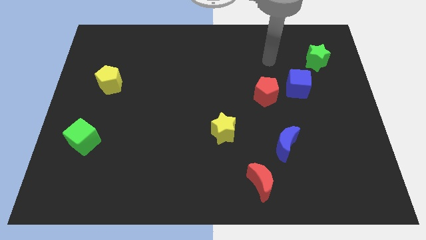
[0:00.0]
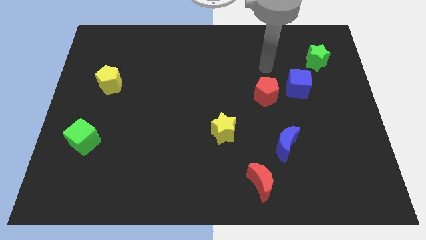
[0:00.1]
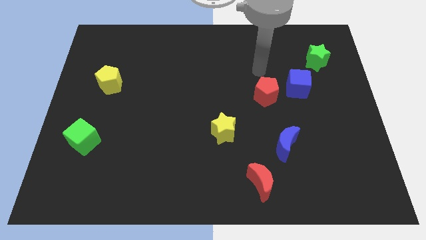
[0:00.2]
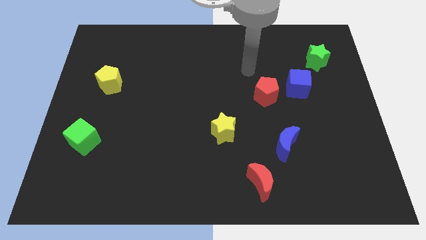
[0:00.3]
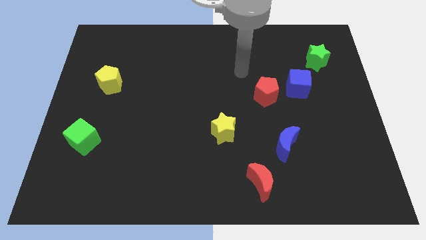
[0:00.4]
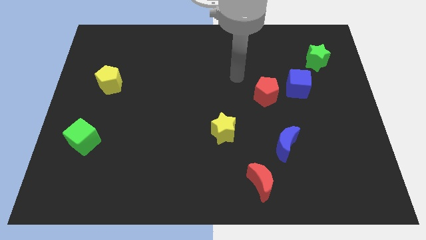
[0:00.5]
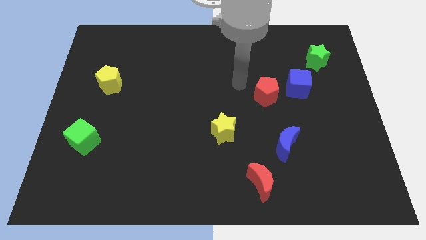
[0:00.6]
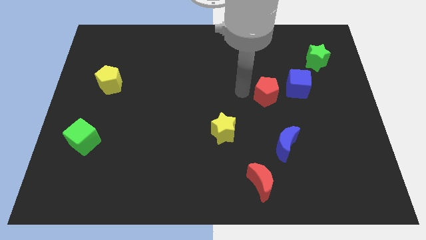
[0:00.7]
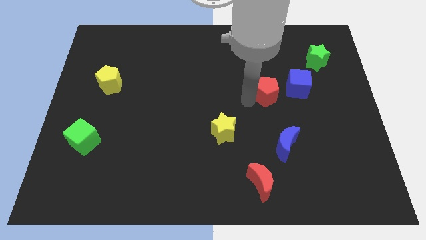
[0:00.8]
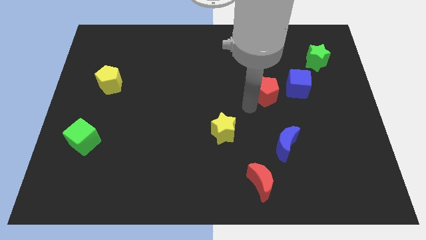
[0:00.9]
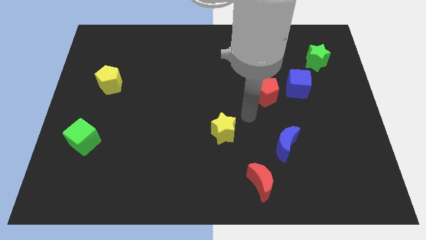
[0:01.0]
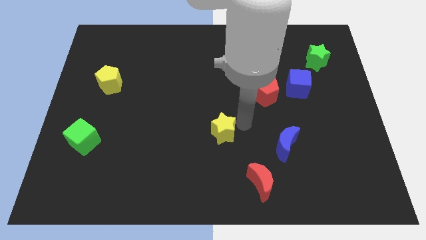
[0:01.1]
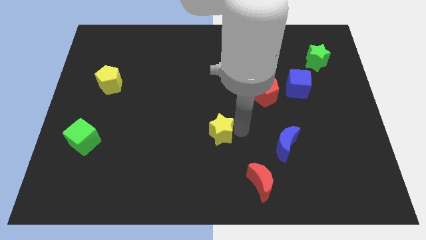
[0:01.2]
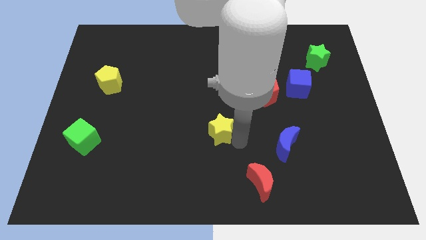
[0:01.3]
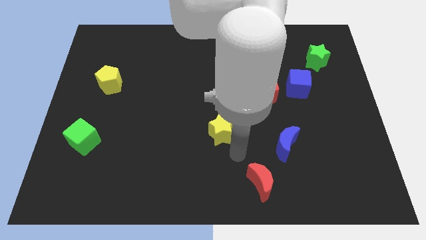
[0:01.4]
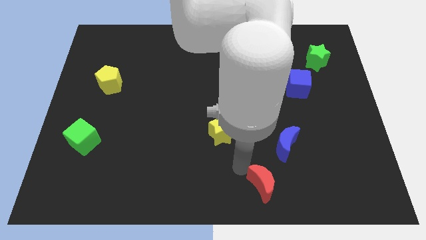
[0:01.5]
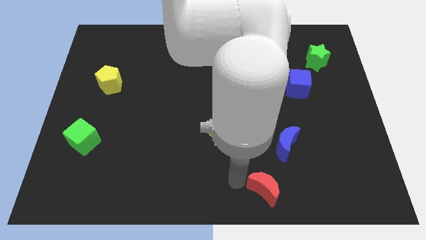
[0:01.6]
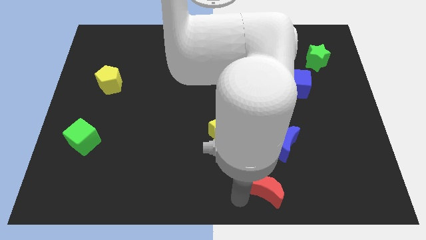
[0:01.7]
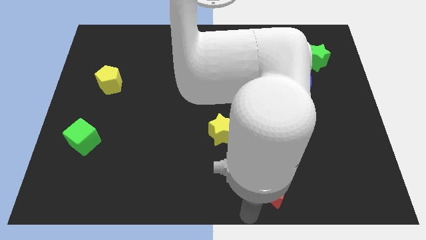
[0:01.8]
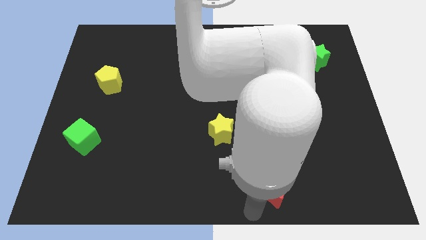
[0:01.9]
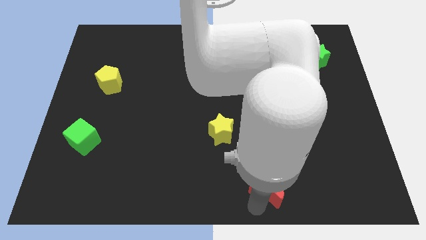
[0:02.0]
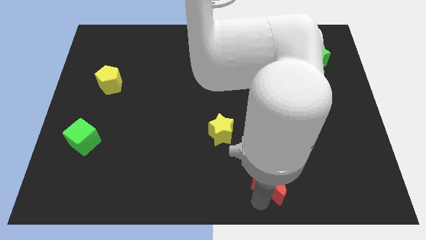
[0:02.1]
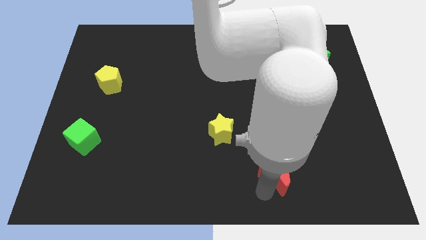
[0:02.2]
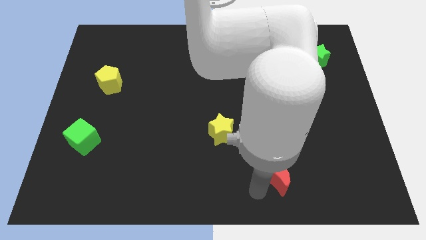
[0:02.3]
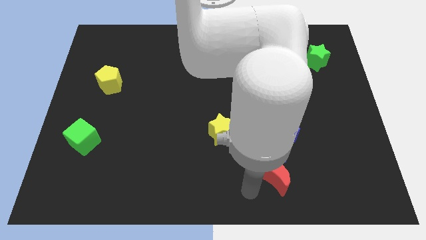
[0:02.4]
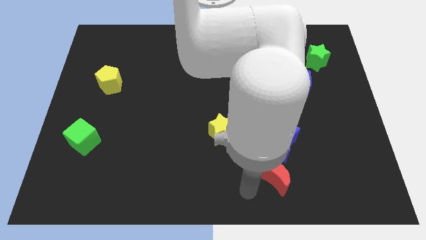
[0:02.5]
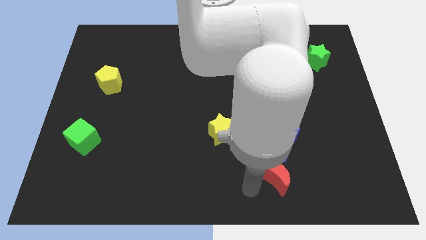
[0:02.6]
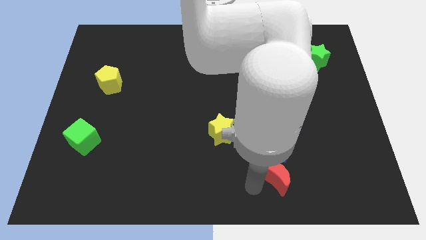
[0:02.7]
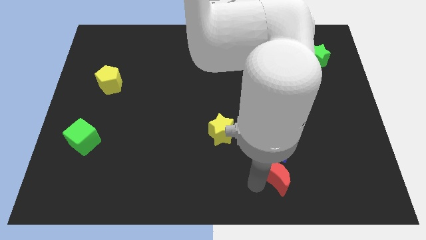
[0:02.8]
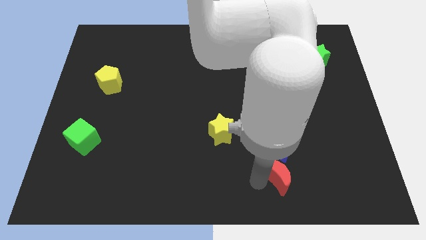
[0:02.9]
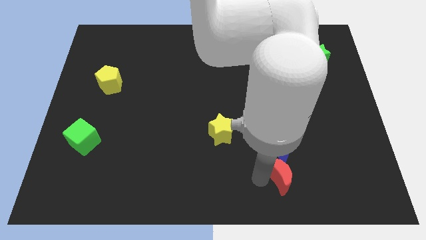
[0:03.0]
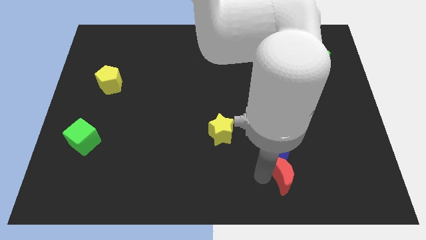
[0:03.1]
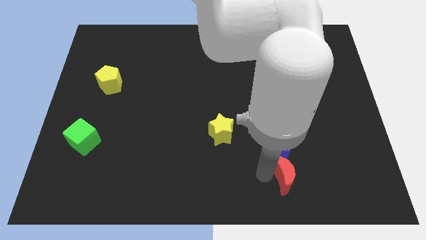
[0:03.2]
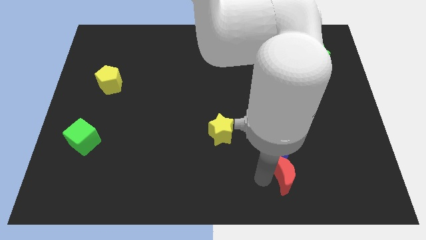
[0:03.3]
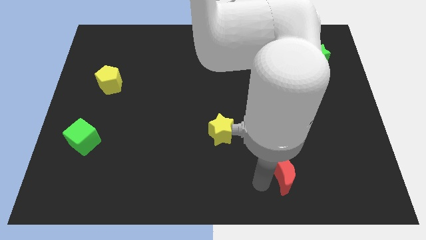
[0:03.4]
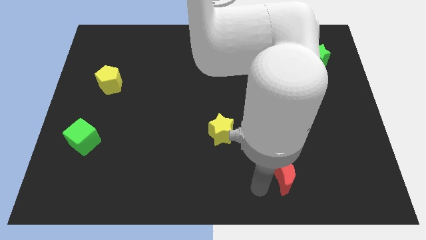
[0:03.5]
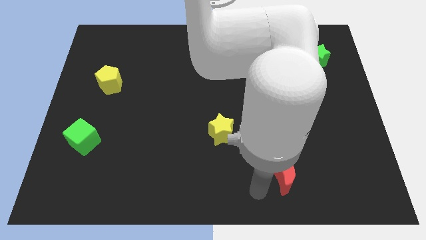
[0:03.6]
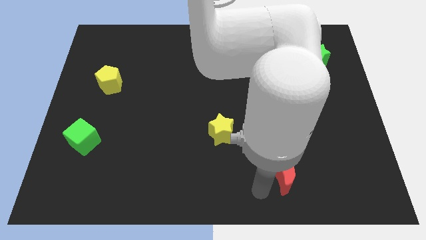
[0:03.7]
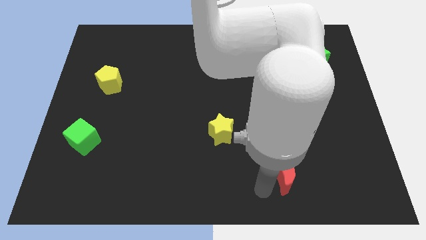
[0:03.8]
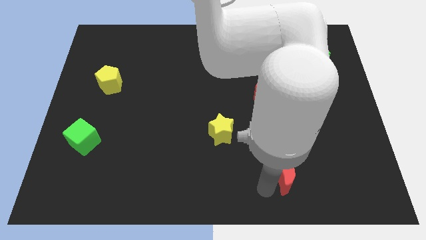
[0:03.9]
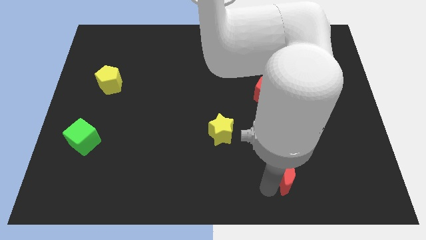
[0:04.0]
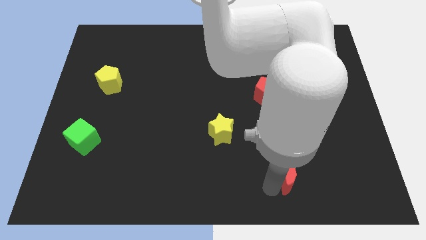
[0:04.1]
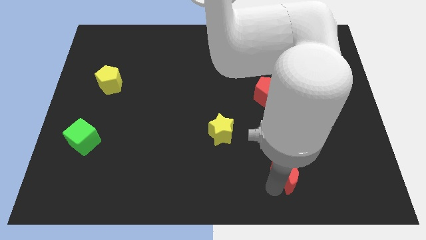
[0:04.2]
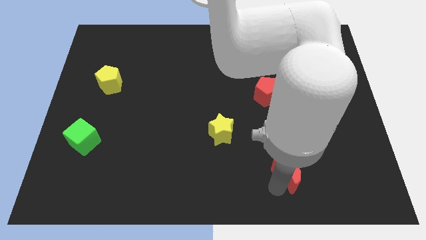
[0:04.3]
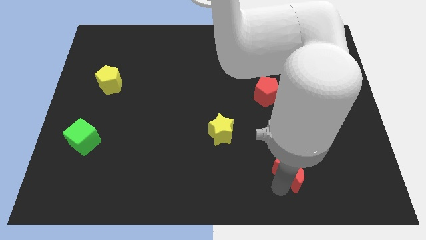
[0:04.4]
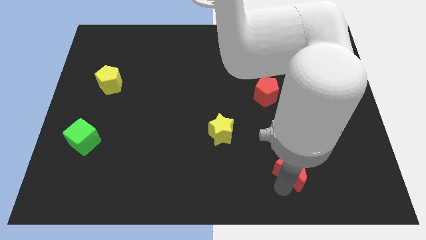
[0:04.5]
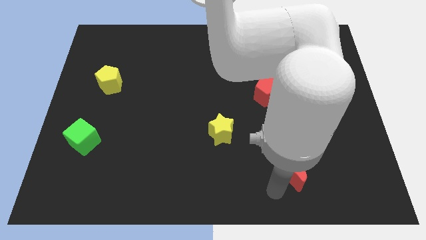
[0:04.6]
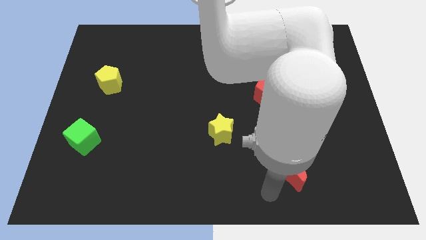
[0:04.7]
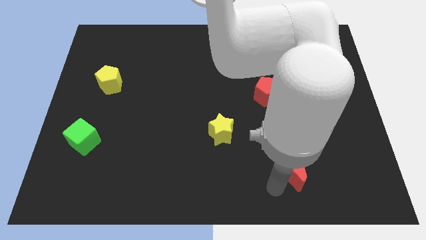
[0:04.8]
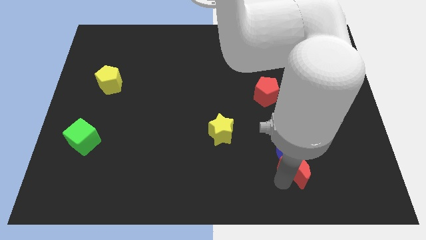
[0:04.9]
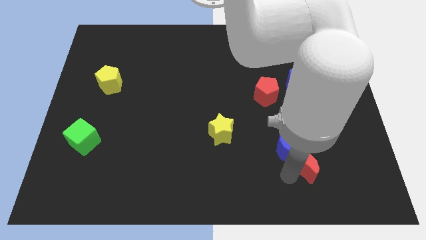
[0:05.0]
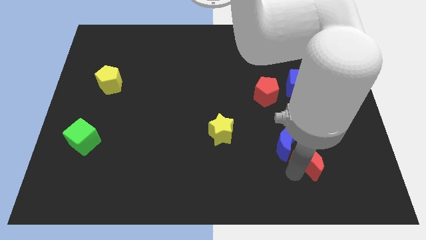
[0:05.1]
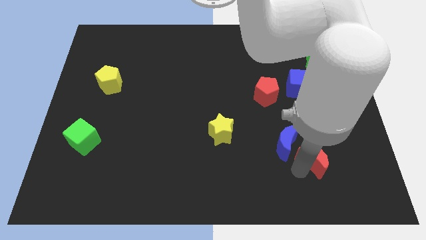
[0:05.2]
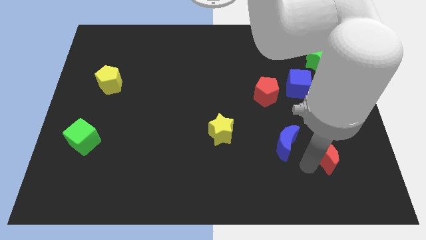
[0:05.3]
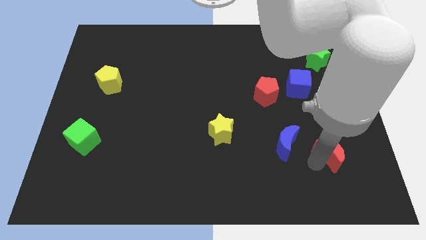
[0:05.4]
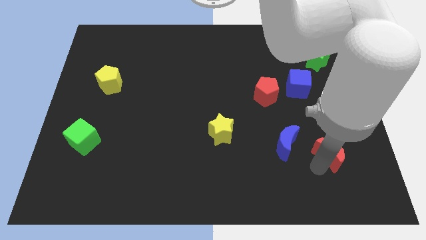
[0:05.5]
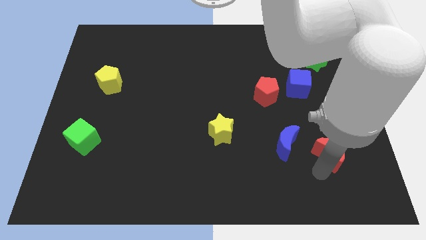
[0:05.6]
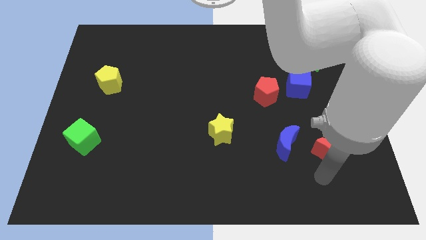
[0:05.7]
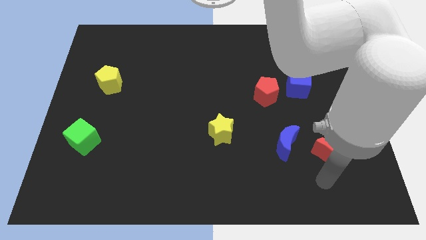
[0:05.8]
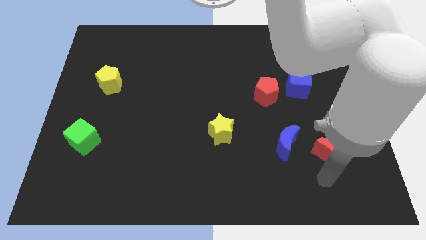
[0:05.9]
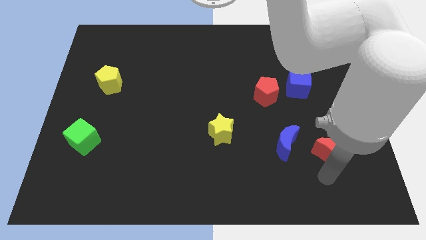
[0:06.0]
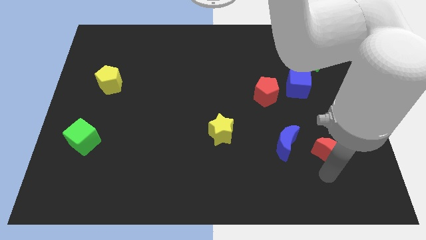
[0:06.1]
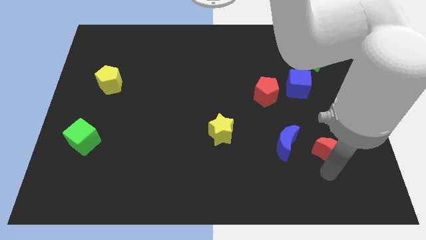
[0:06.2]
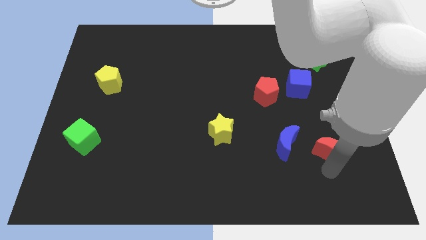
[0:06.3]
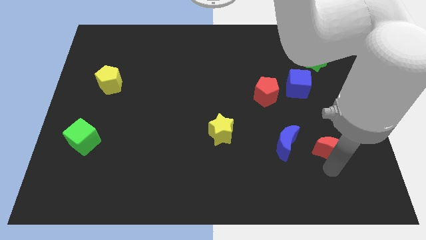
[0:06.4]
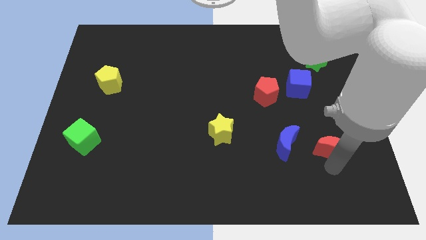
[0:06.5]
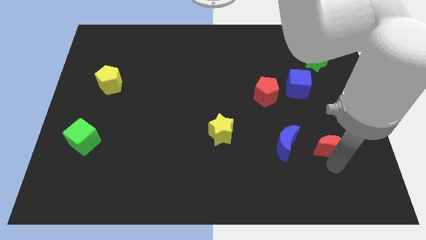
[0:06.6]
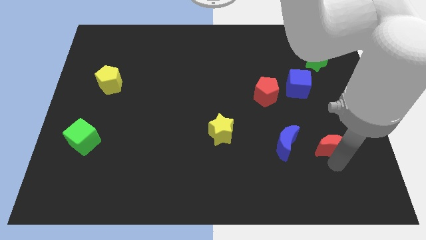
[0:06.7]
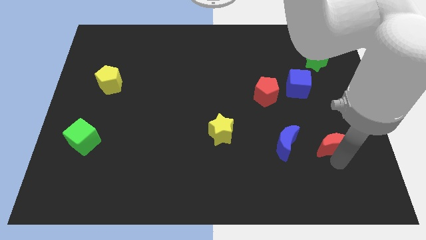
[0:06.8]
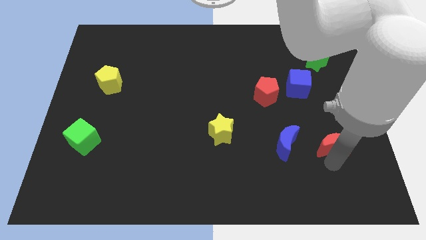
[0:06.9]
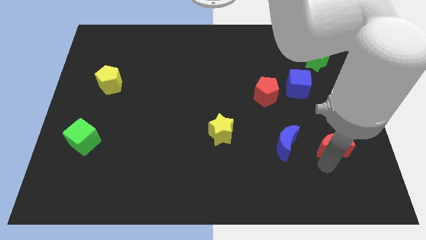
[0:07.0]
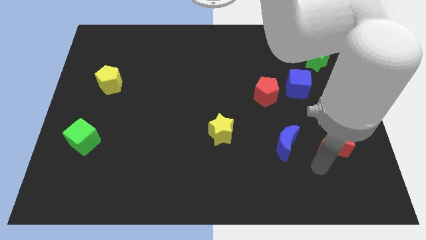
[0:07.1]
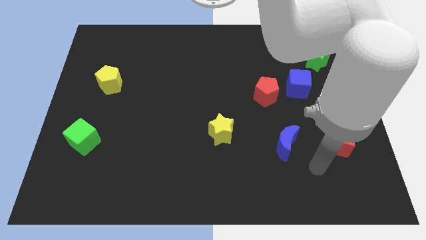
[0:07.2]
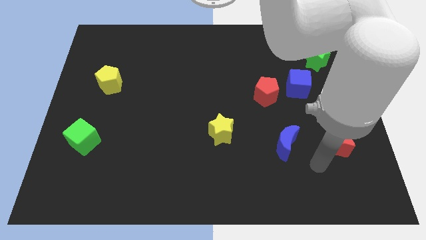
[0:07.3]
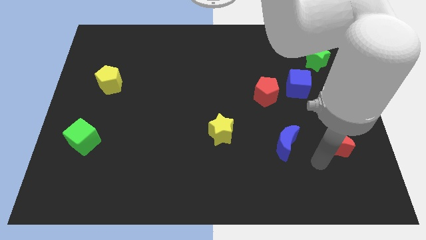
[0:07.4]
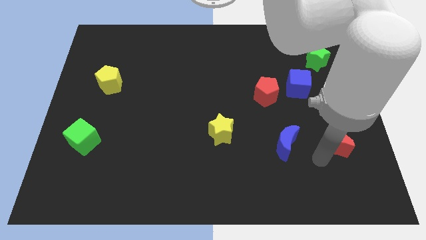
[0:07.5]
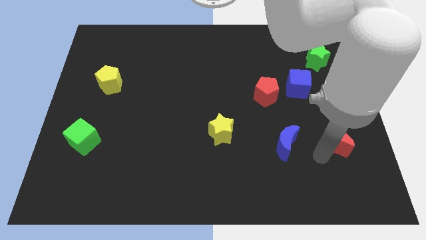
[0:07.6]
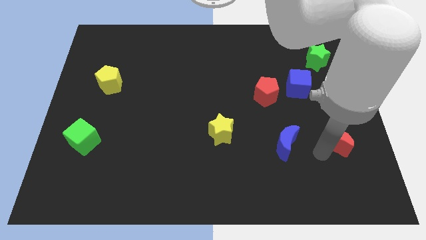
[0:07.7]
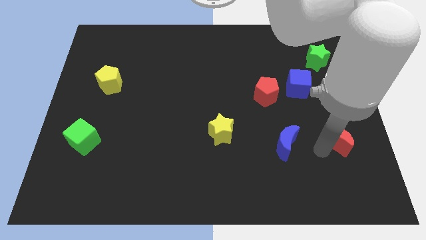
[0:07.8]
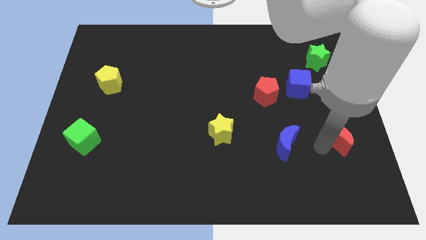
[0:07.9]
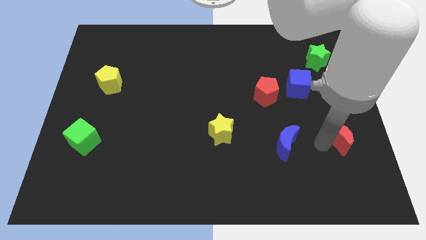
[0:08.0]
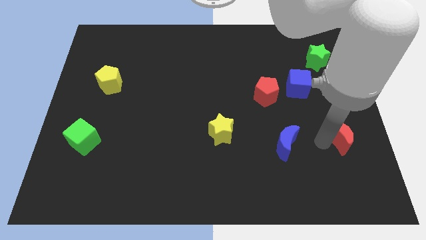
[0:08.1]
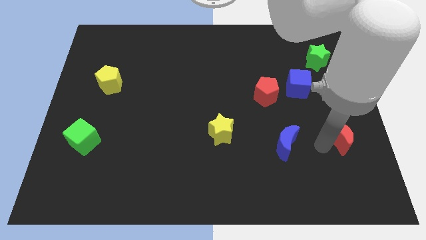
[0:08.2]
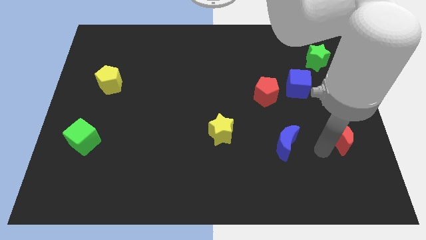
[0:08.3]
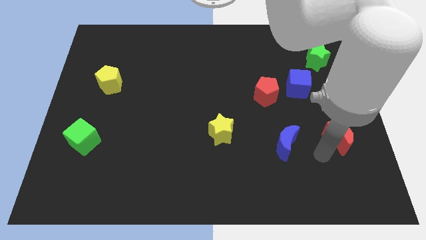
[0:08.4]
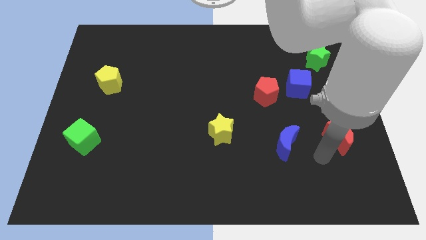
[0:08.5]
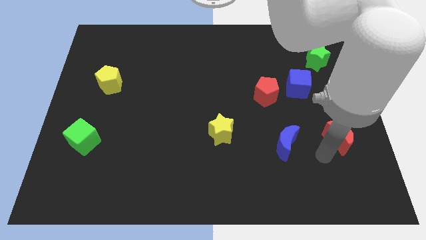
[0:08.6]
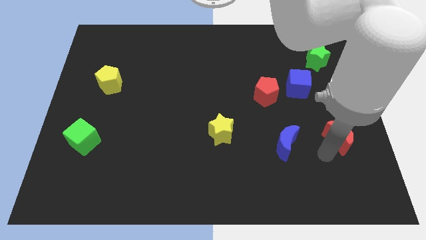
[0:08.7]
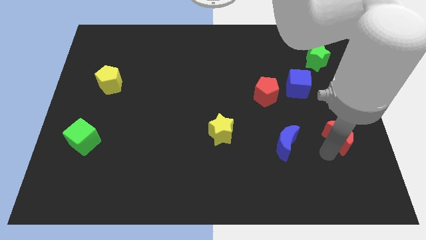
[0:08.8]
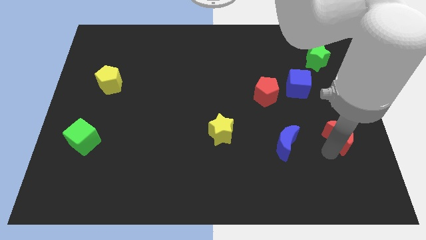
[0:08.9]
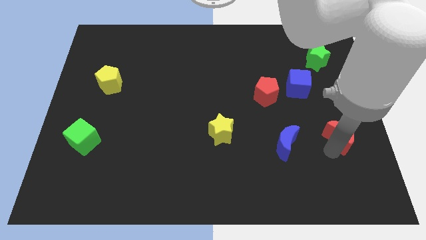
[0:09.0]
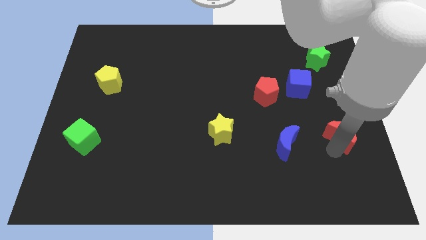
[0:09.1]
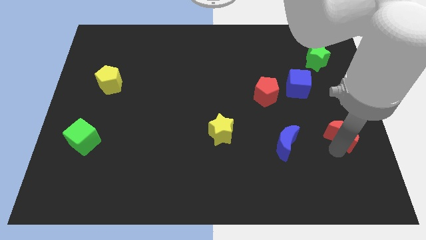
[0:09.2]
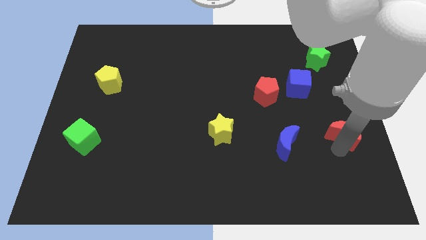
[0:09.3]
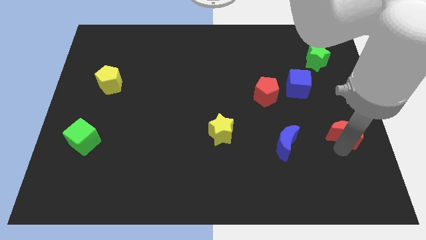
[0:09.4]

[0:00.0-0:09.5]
slide the red moon to the center right
